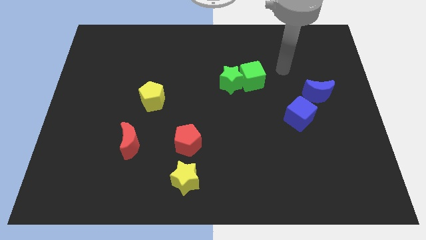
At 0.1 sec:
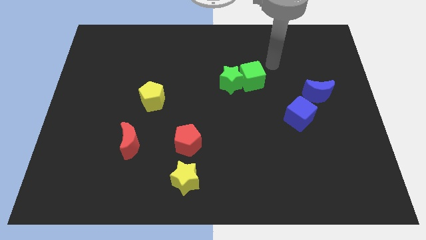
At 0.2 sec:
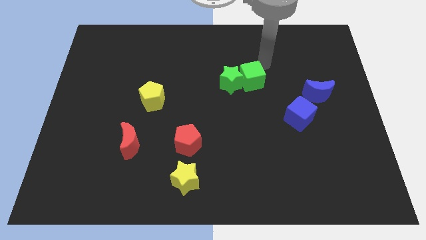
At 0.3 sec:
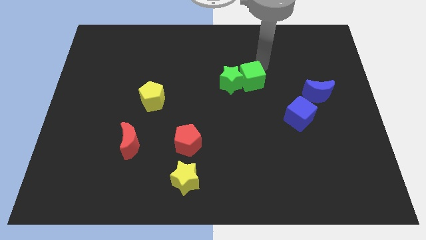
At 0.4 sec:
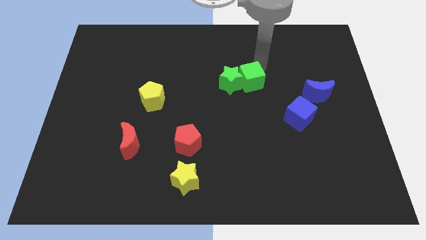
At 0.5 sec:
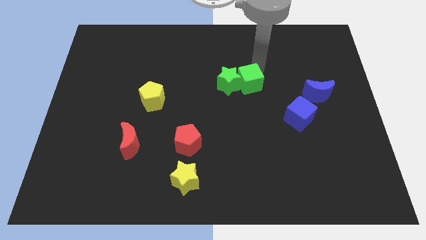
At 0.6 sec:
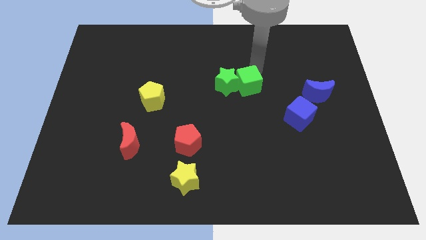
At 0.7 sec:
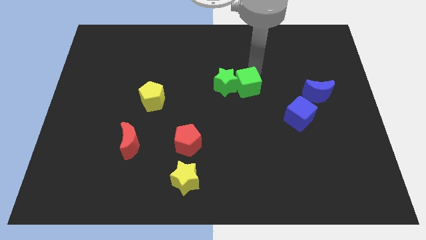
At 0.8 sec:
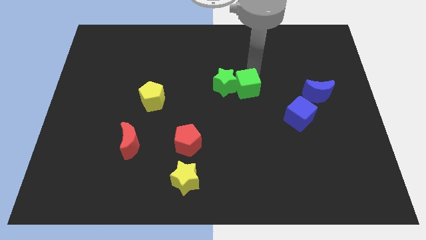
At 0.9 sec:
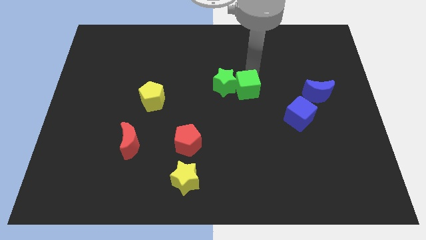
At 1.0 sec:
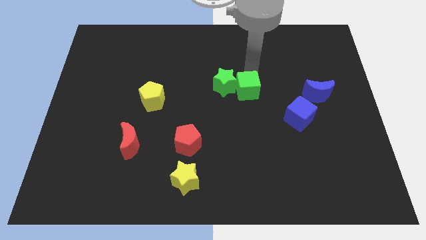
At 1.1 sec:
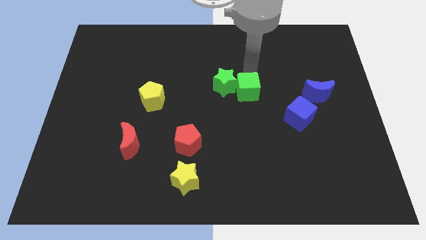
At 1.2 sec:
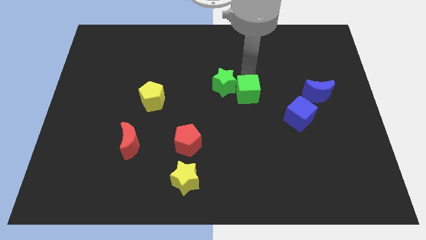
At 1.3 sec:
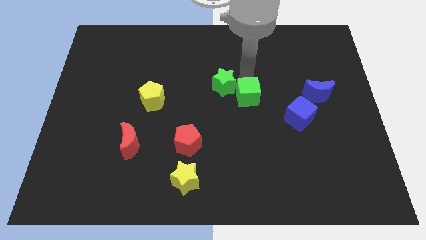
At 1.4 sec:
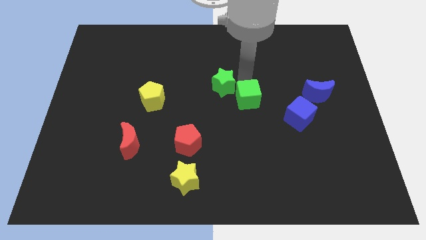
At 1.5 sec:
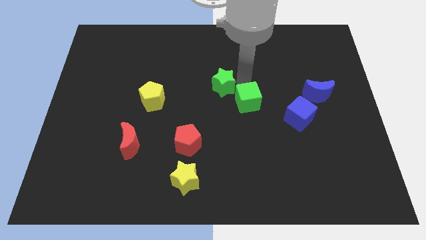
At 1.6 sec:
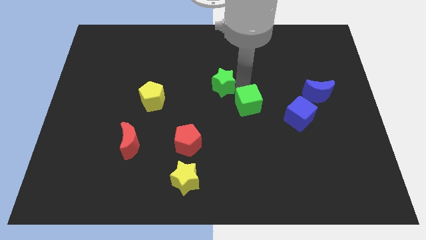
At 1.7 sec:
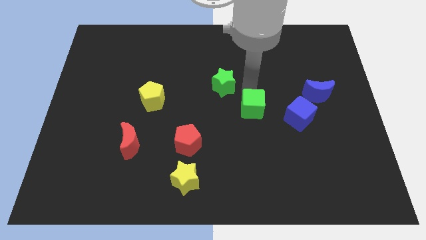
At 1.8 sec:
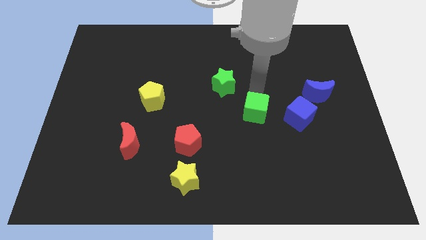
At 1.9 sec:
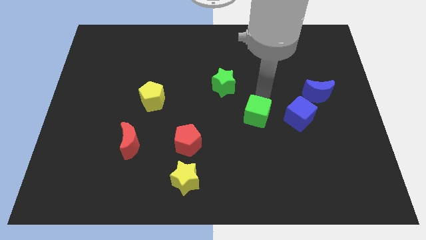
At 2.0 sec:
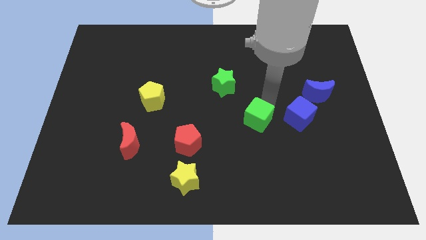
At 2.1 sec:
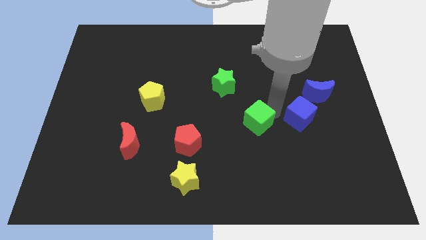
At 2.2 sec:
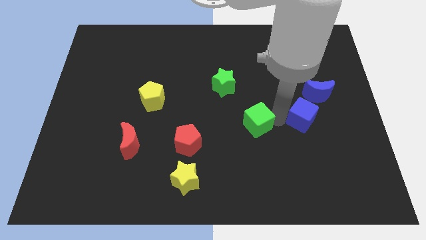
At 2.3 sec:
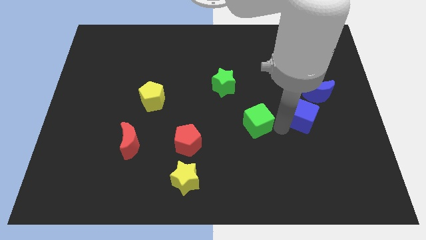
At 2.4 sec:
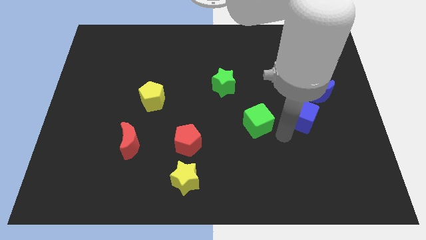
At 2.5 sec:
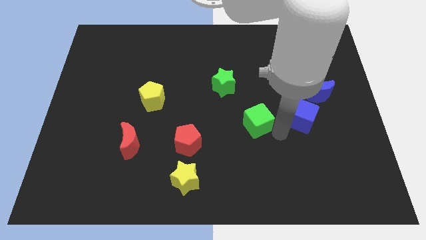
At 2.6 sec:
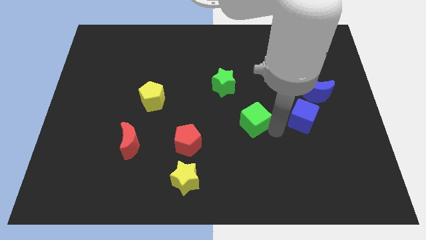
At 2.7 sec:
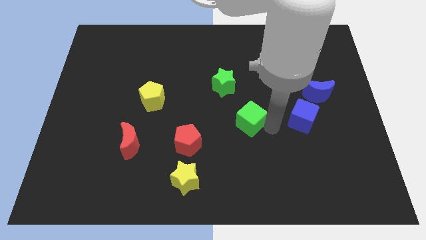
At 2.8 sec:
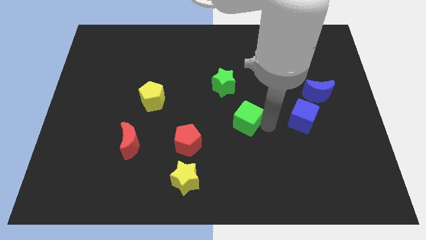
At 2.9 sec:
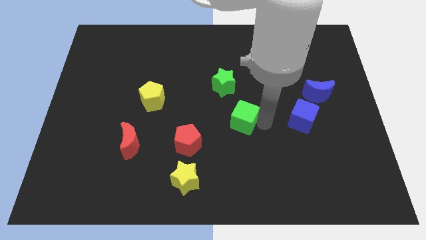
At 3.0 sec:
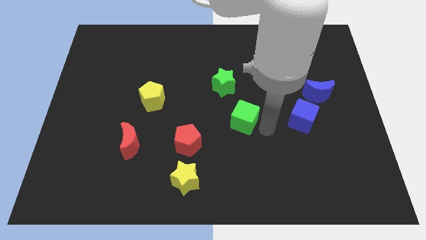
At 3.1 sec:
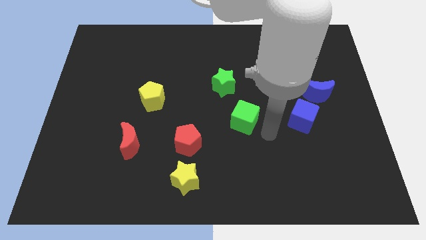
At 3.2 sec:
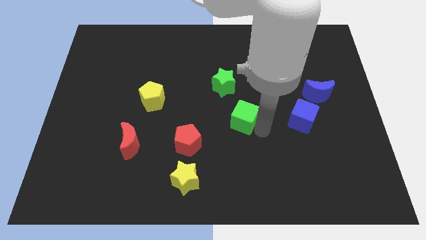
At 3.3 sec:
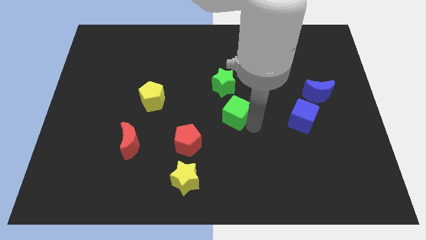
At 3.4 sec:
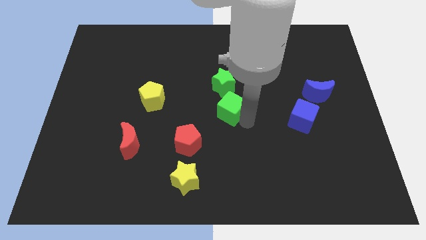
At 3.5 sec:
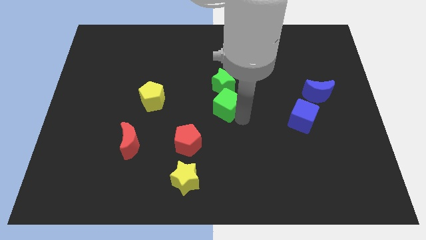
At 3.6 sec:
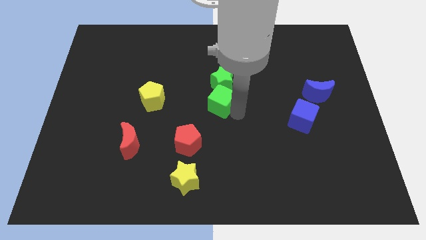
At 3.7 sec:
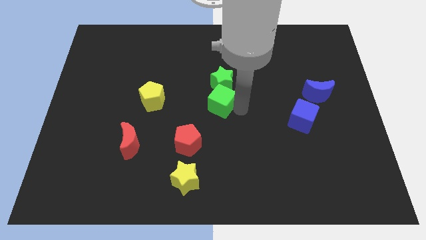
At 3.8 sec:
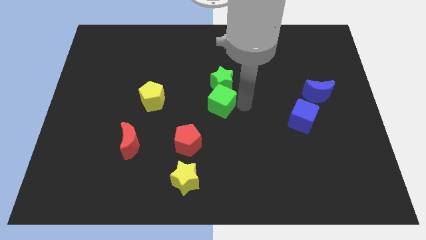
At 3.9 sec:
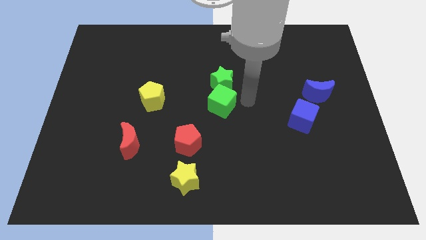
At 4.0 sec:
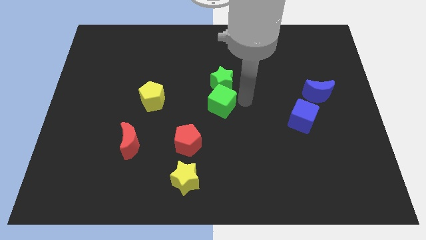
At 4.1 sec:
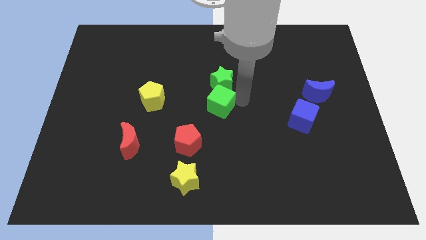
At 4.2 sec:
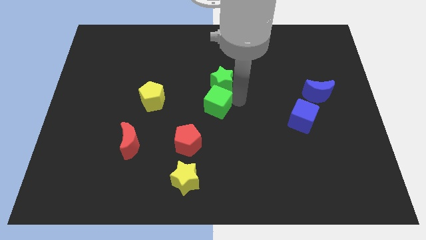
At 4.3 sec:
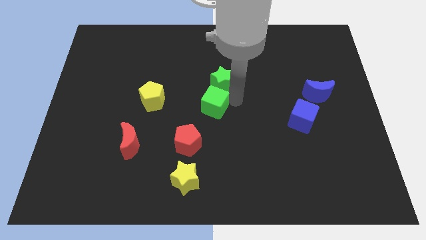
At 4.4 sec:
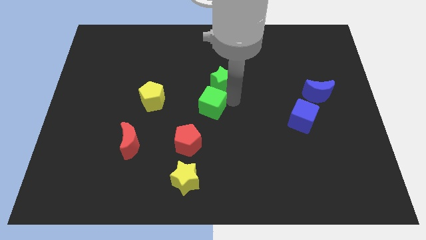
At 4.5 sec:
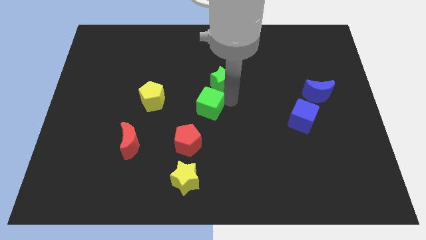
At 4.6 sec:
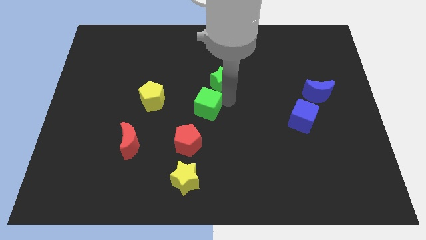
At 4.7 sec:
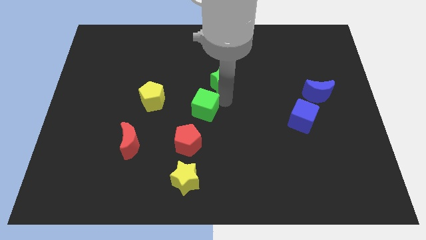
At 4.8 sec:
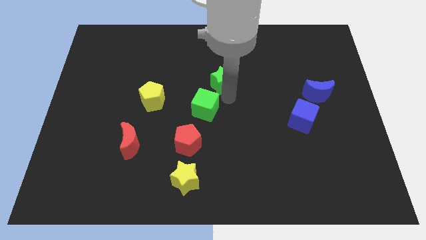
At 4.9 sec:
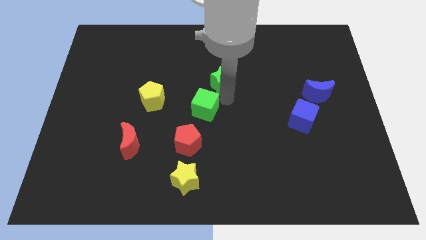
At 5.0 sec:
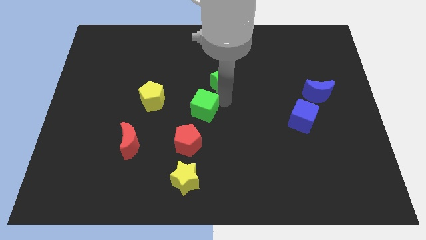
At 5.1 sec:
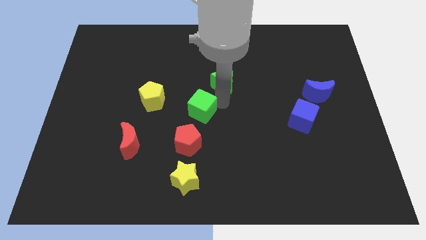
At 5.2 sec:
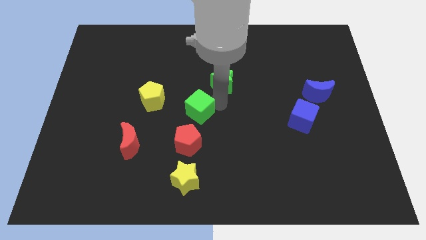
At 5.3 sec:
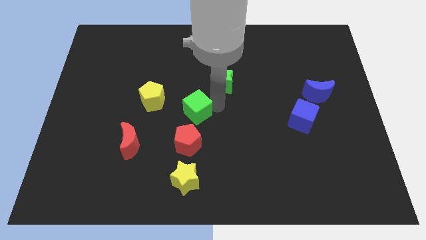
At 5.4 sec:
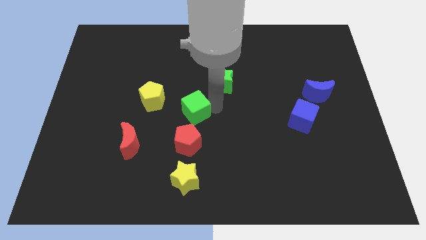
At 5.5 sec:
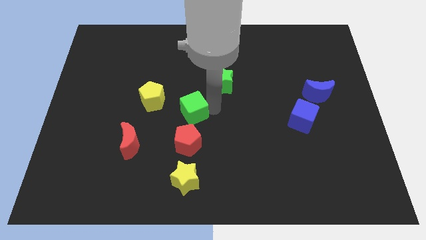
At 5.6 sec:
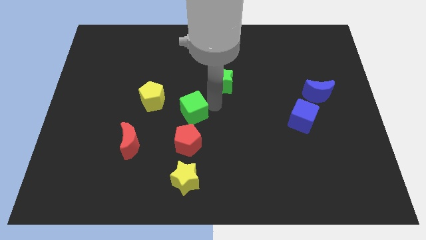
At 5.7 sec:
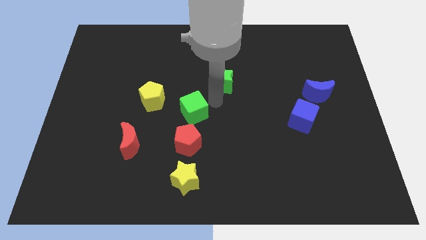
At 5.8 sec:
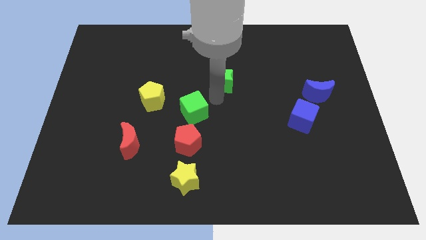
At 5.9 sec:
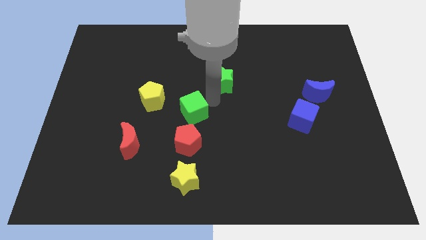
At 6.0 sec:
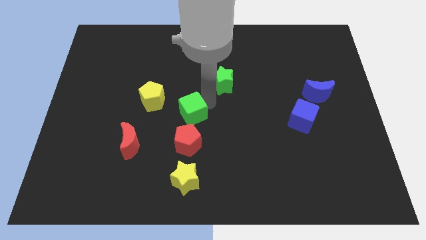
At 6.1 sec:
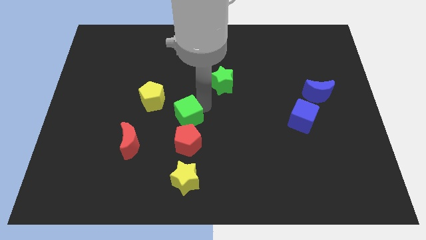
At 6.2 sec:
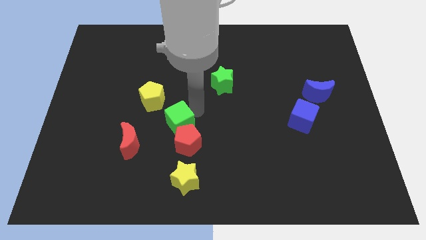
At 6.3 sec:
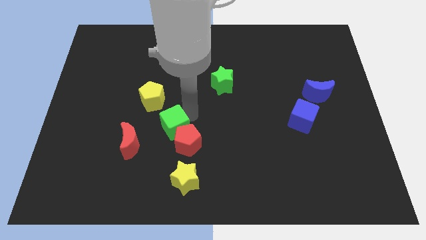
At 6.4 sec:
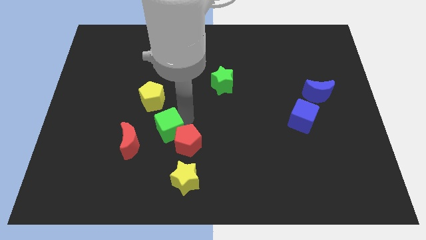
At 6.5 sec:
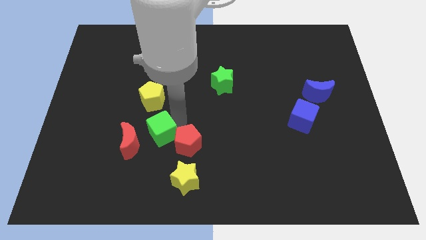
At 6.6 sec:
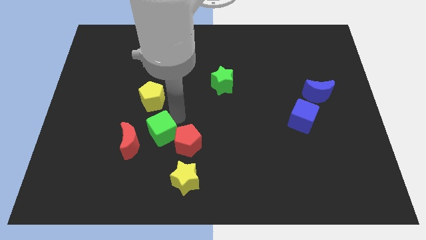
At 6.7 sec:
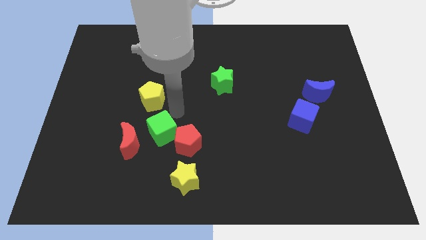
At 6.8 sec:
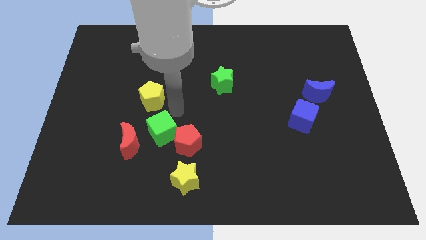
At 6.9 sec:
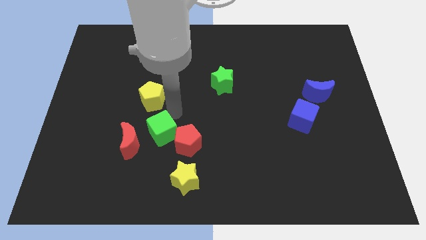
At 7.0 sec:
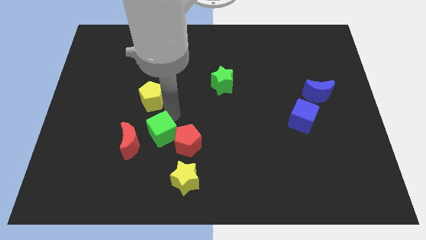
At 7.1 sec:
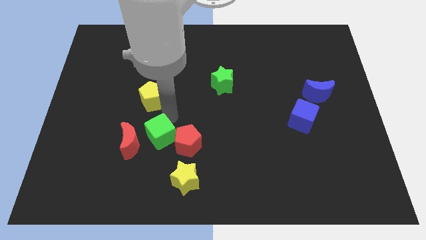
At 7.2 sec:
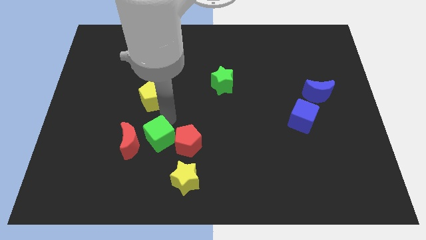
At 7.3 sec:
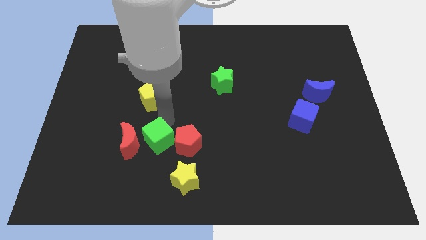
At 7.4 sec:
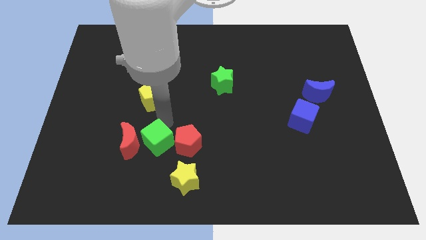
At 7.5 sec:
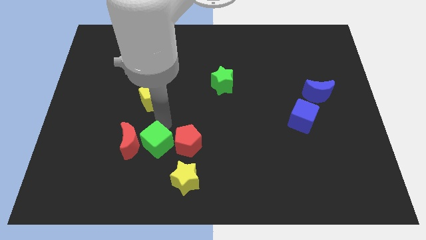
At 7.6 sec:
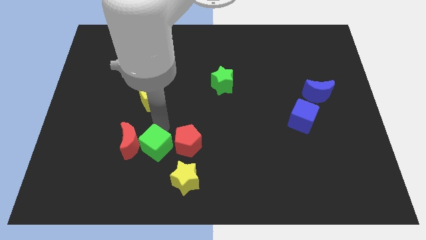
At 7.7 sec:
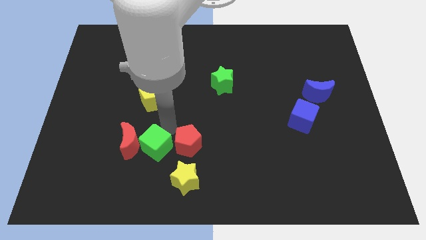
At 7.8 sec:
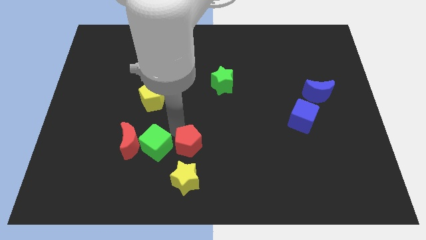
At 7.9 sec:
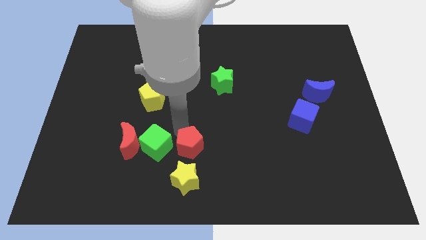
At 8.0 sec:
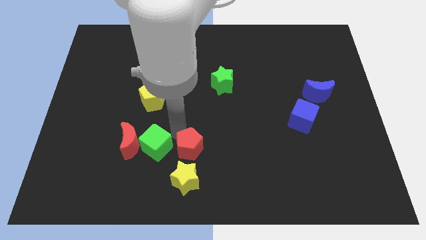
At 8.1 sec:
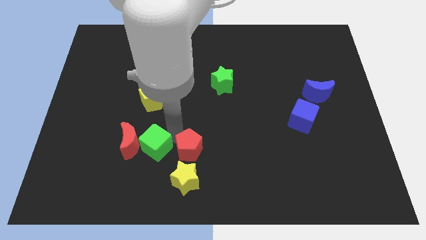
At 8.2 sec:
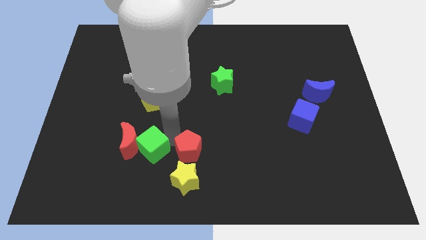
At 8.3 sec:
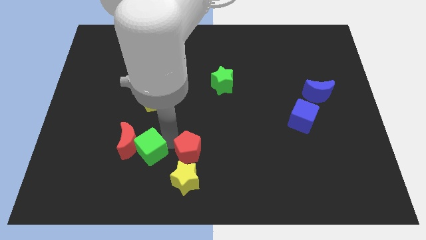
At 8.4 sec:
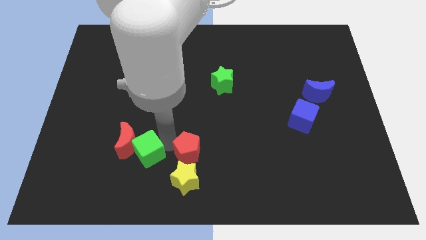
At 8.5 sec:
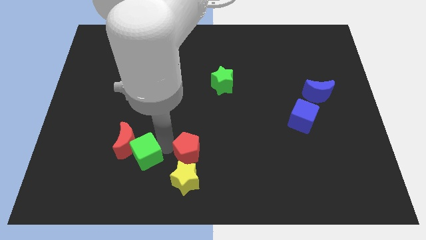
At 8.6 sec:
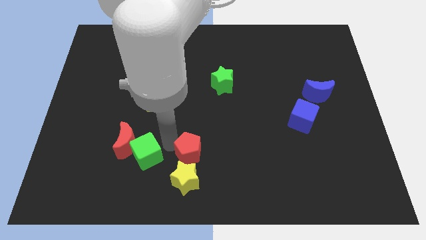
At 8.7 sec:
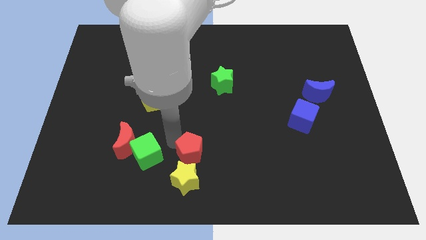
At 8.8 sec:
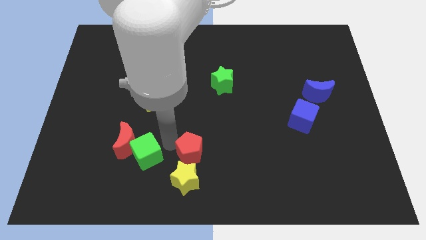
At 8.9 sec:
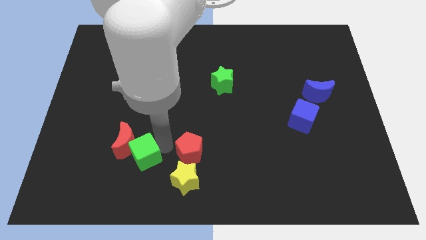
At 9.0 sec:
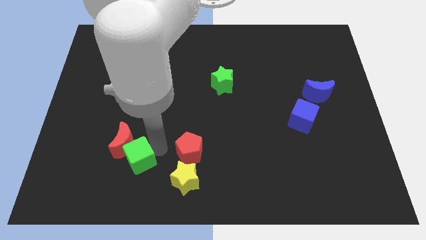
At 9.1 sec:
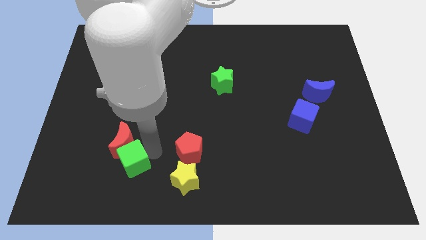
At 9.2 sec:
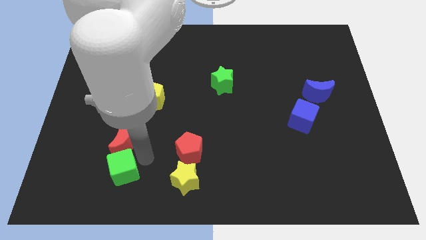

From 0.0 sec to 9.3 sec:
put the green cube to the bottom left side of the red moon
